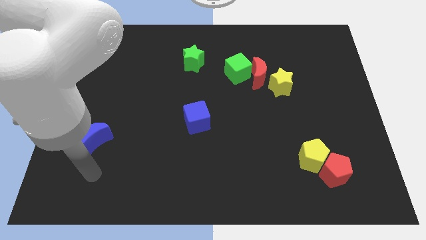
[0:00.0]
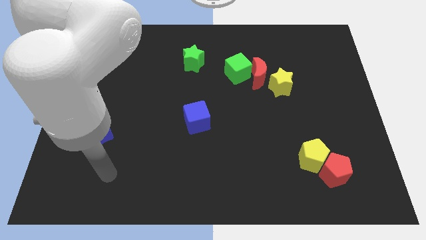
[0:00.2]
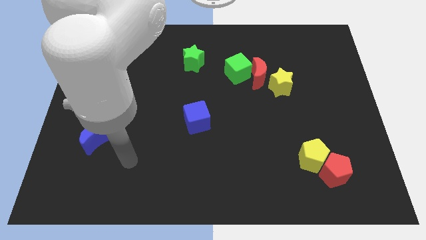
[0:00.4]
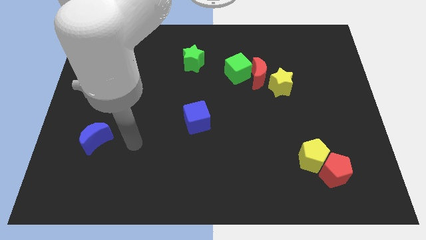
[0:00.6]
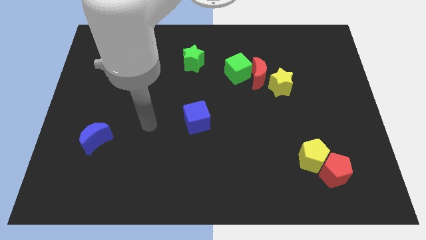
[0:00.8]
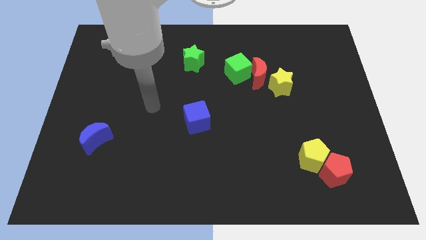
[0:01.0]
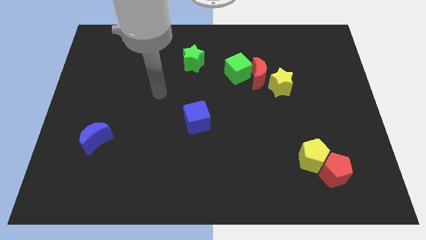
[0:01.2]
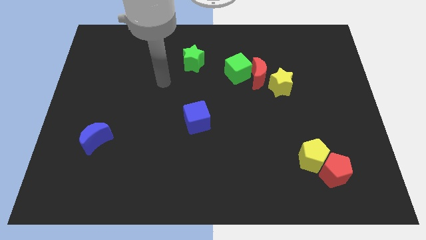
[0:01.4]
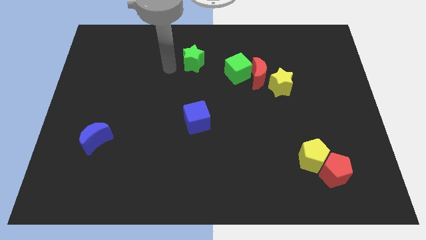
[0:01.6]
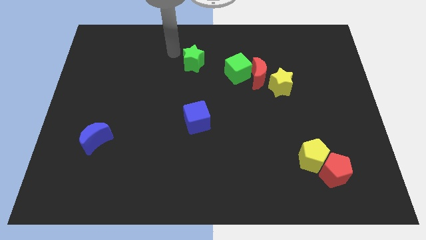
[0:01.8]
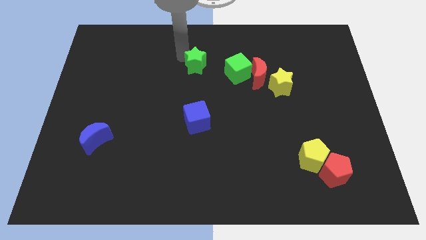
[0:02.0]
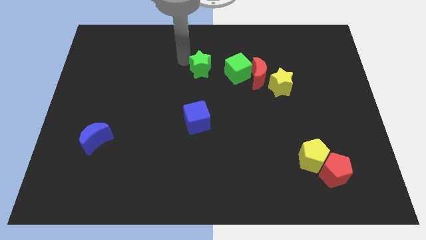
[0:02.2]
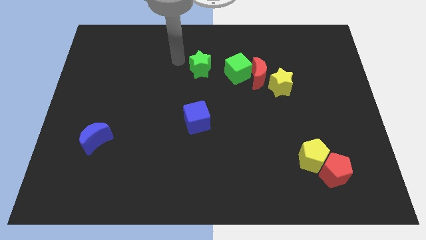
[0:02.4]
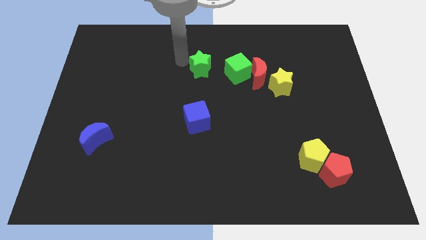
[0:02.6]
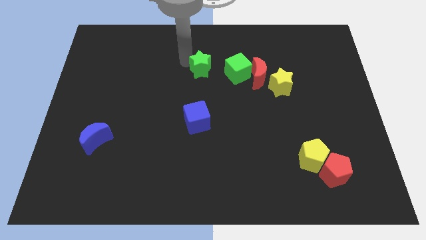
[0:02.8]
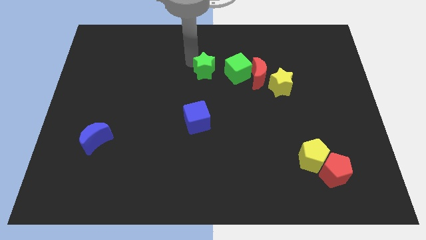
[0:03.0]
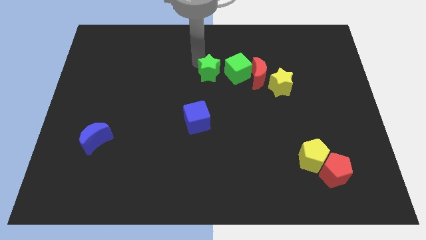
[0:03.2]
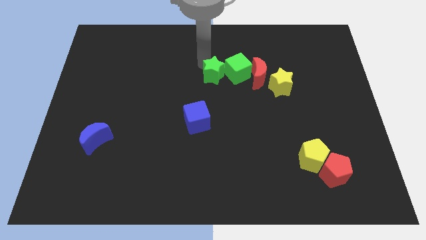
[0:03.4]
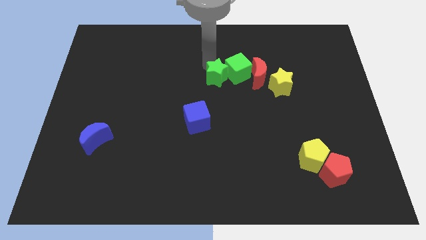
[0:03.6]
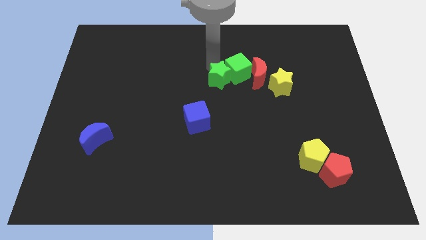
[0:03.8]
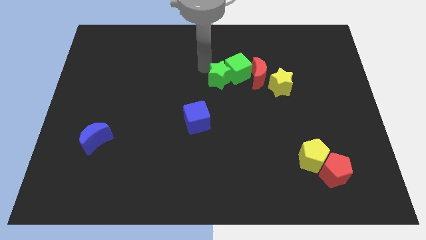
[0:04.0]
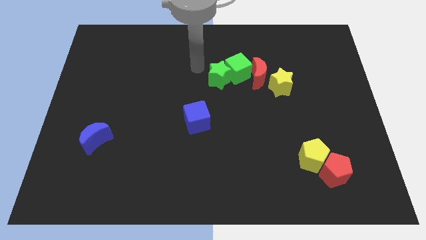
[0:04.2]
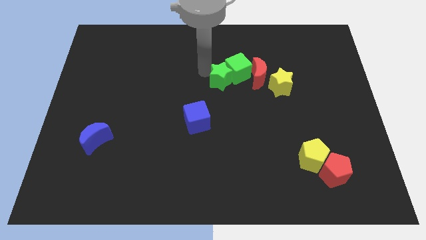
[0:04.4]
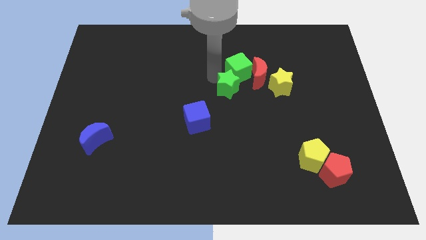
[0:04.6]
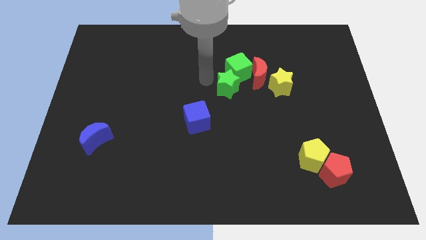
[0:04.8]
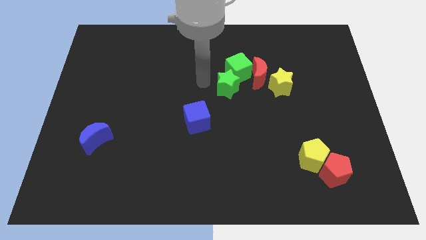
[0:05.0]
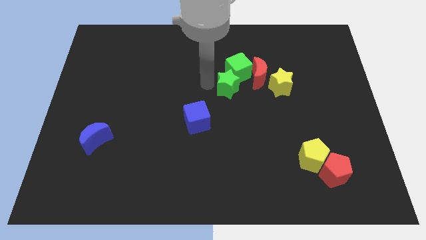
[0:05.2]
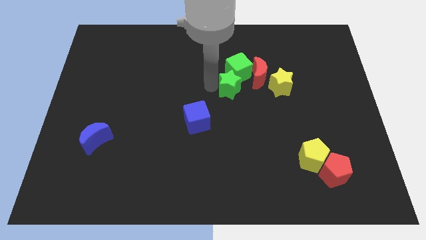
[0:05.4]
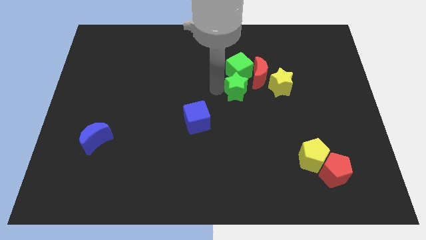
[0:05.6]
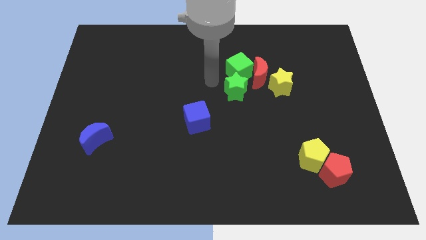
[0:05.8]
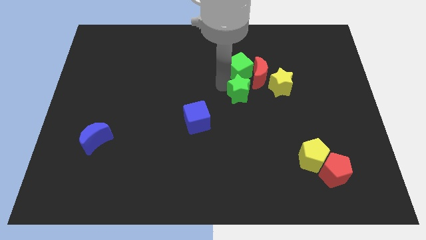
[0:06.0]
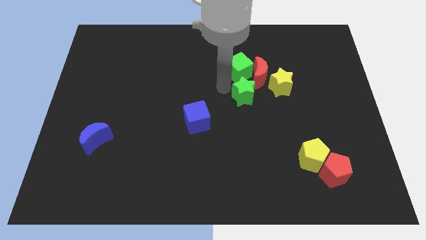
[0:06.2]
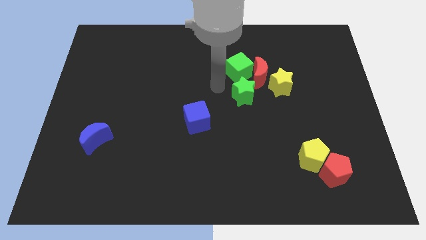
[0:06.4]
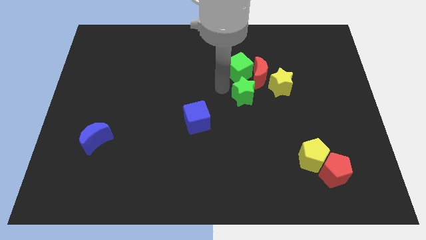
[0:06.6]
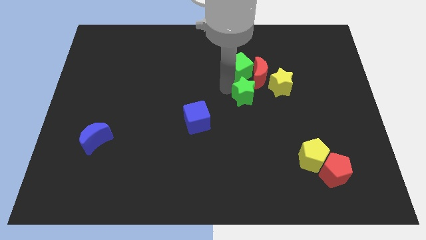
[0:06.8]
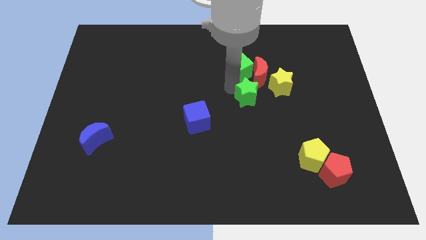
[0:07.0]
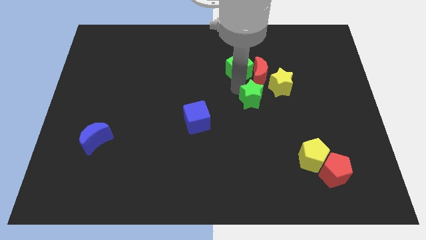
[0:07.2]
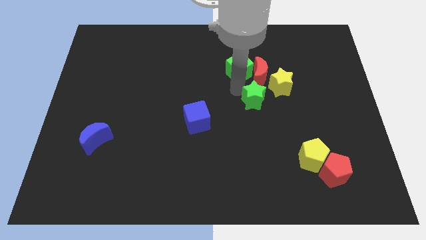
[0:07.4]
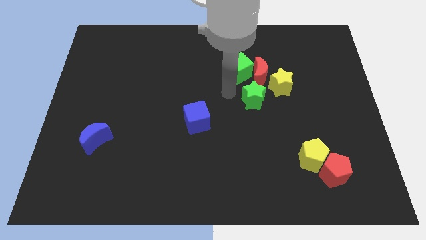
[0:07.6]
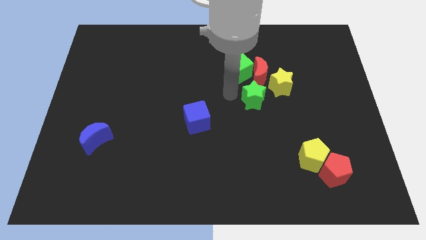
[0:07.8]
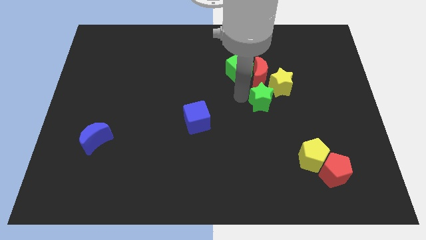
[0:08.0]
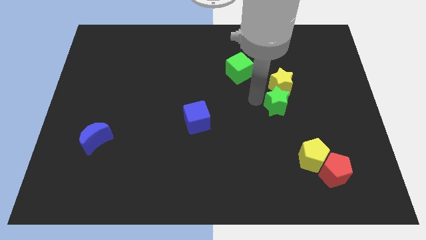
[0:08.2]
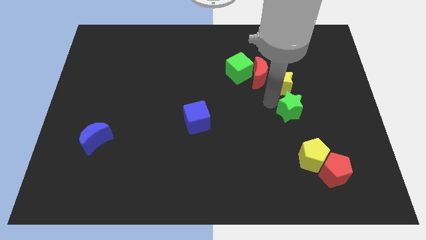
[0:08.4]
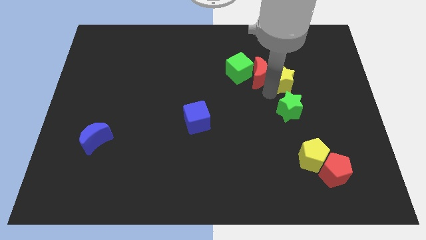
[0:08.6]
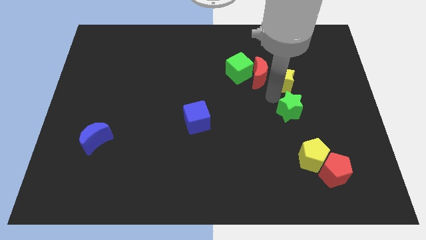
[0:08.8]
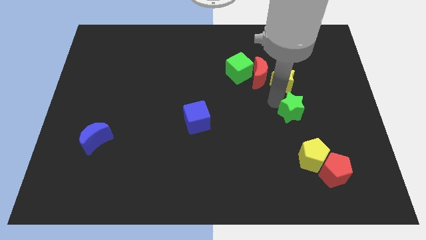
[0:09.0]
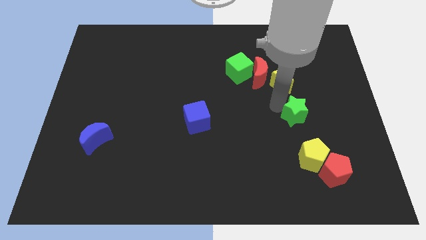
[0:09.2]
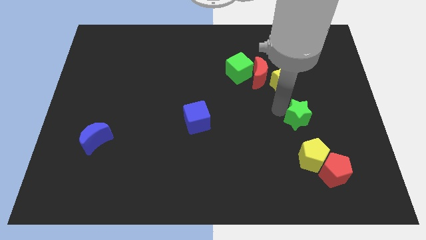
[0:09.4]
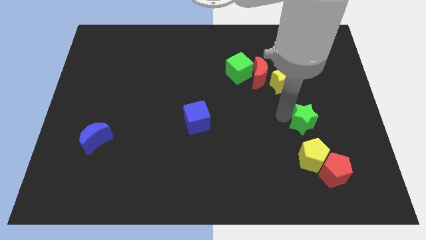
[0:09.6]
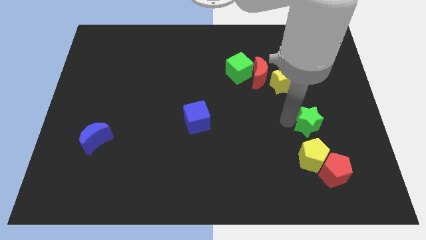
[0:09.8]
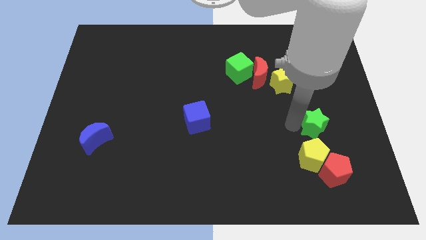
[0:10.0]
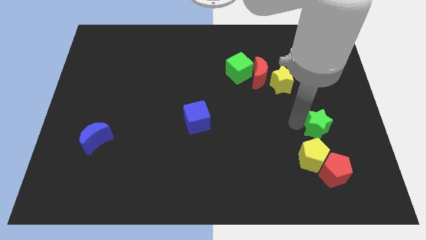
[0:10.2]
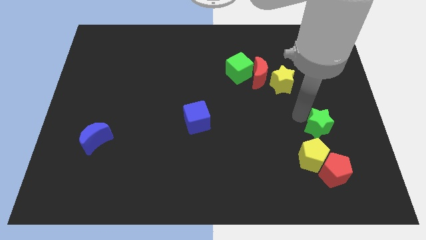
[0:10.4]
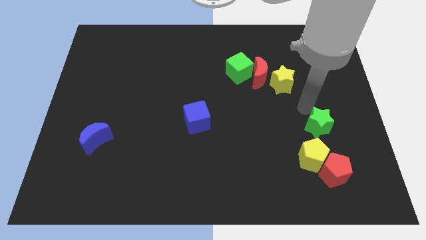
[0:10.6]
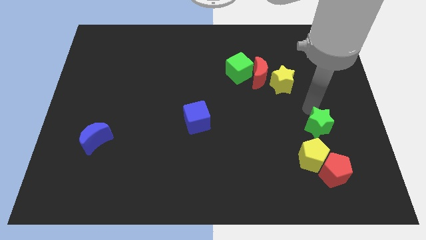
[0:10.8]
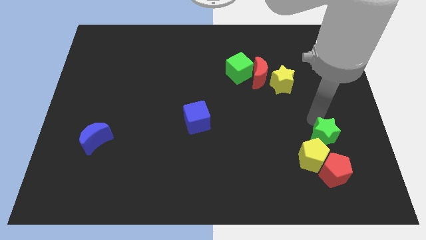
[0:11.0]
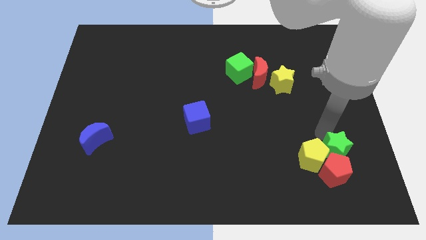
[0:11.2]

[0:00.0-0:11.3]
put the green star next to the red pentagon

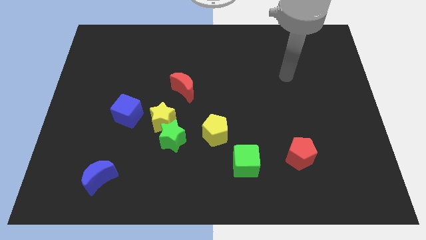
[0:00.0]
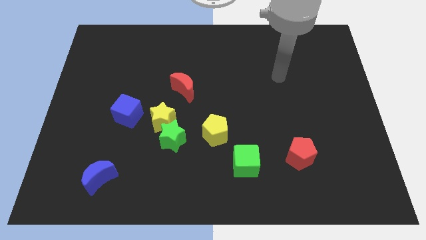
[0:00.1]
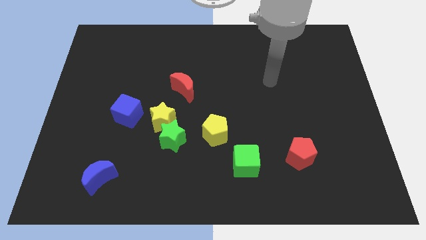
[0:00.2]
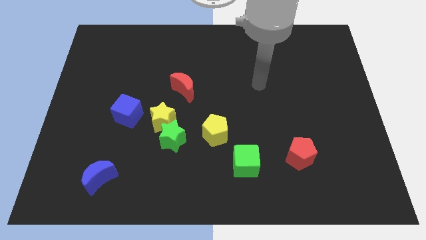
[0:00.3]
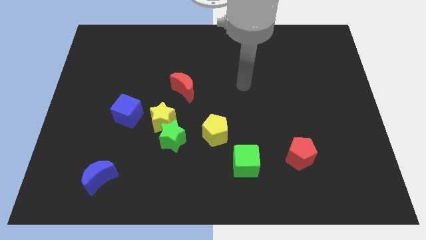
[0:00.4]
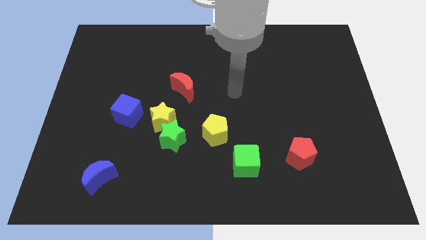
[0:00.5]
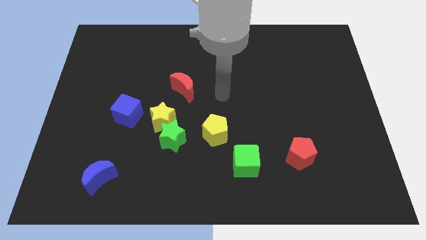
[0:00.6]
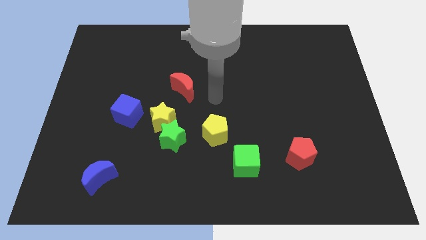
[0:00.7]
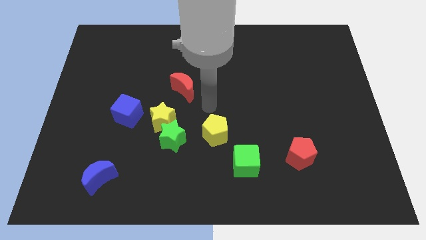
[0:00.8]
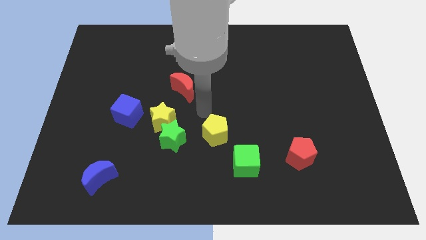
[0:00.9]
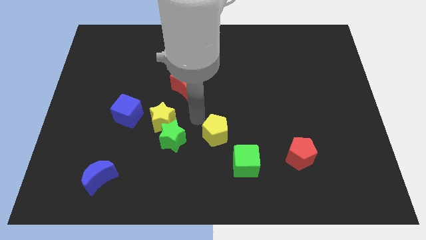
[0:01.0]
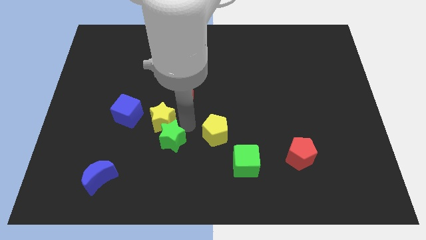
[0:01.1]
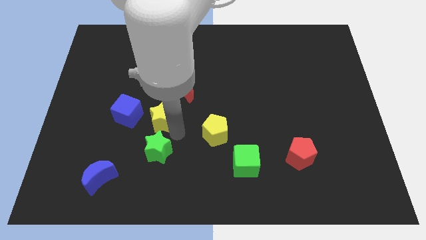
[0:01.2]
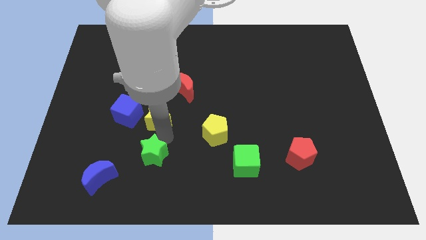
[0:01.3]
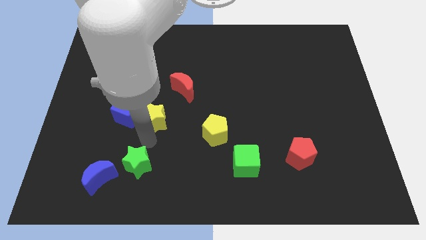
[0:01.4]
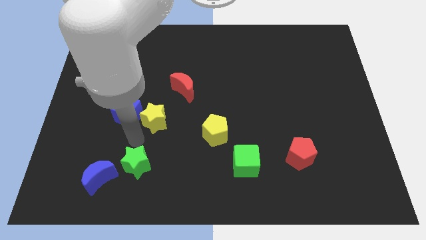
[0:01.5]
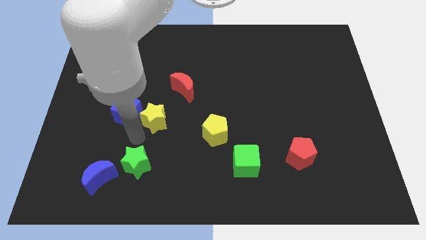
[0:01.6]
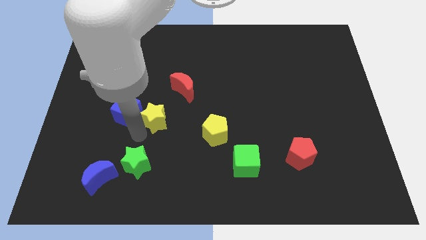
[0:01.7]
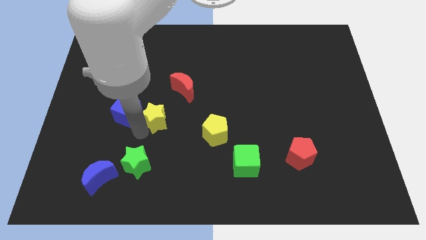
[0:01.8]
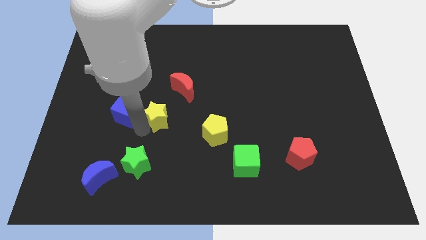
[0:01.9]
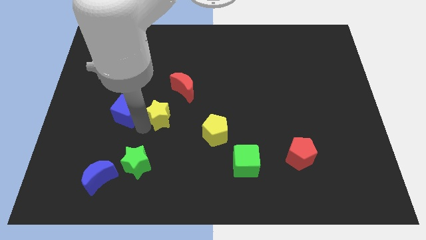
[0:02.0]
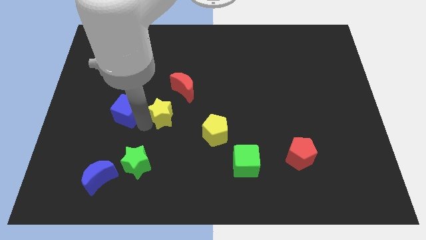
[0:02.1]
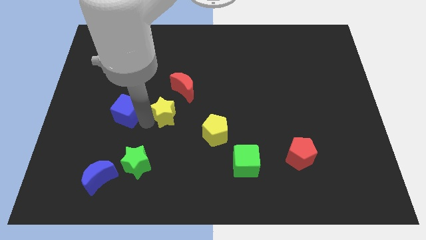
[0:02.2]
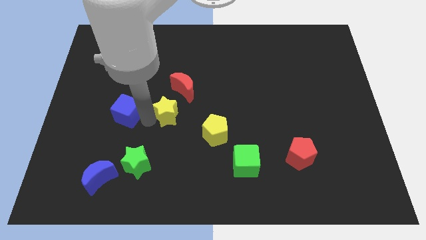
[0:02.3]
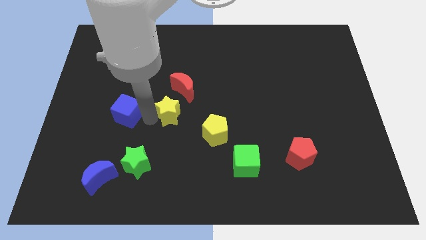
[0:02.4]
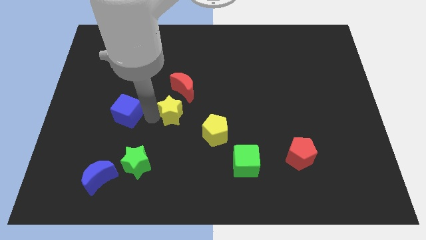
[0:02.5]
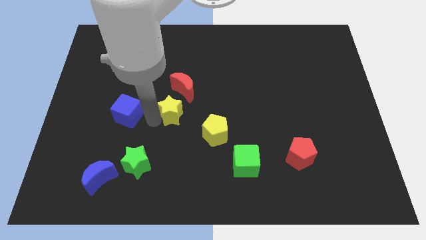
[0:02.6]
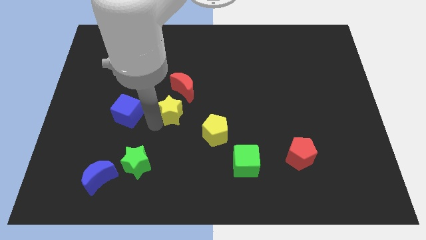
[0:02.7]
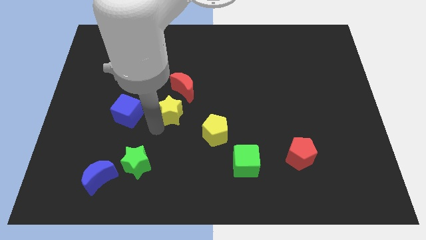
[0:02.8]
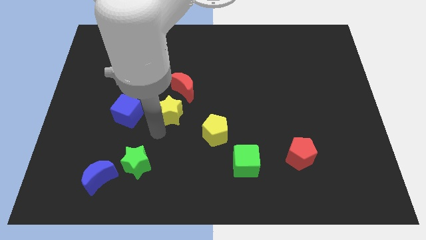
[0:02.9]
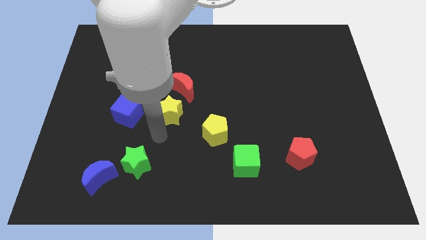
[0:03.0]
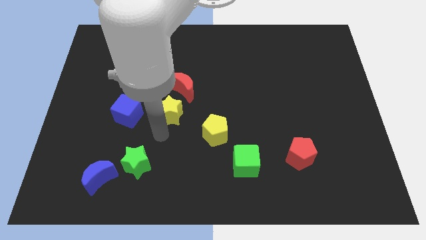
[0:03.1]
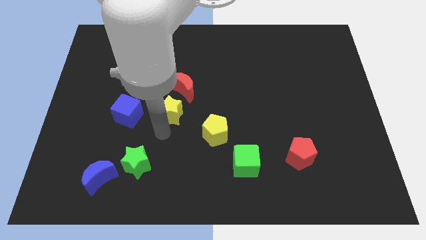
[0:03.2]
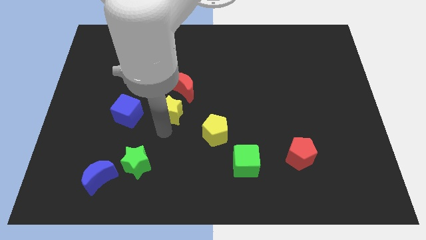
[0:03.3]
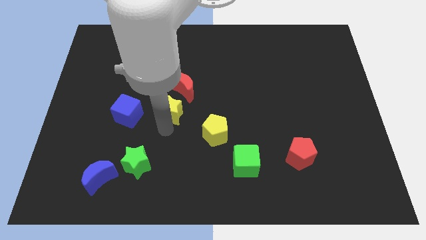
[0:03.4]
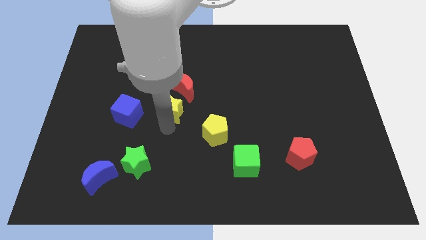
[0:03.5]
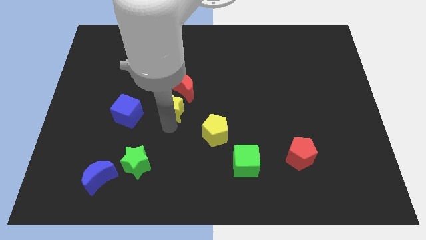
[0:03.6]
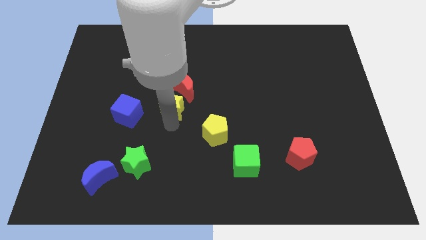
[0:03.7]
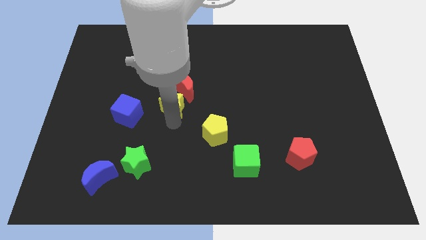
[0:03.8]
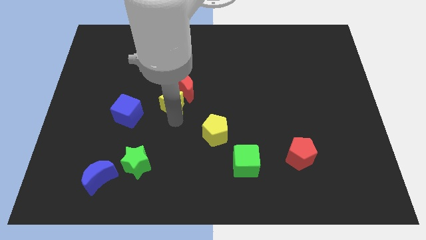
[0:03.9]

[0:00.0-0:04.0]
slide the yellow star to the red moon
